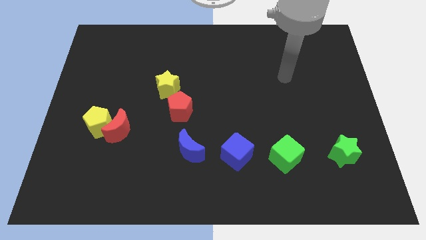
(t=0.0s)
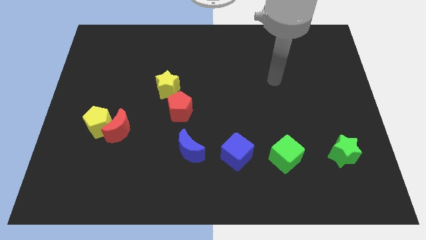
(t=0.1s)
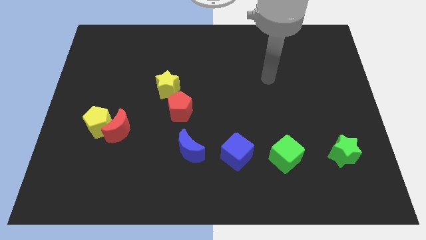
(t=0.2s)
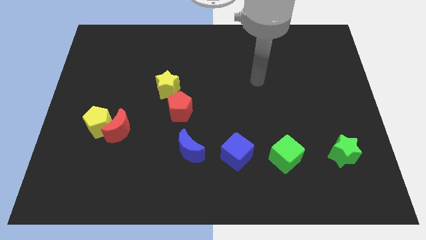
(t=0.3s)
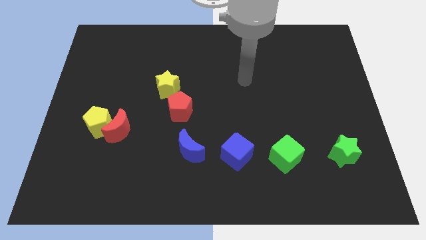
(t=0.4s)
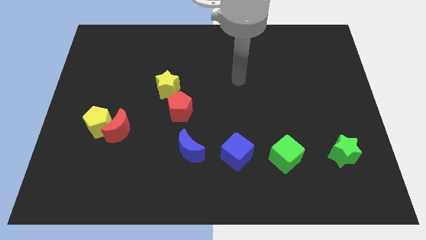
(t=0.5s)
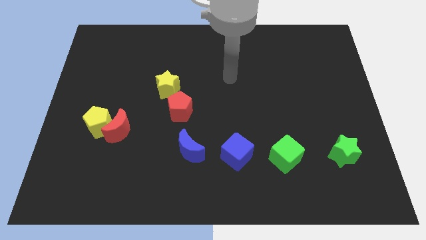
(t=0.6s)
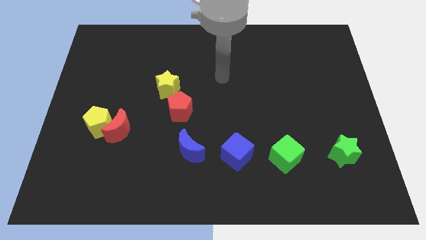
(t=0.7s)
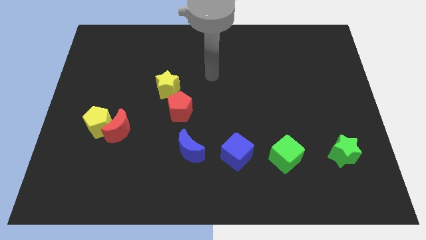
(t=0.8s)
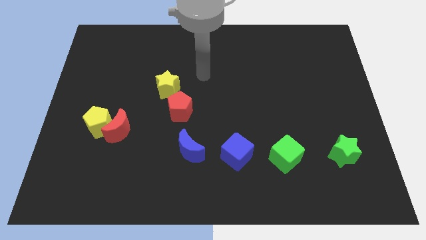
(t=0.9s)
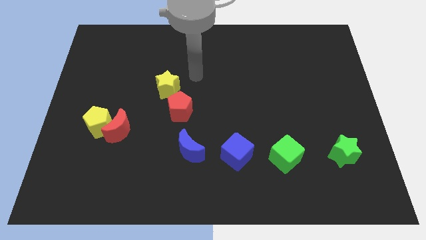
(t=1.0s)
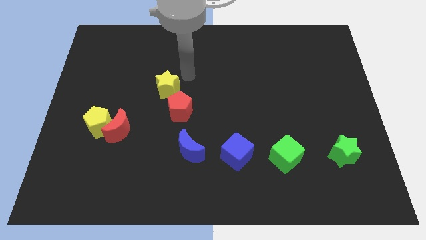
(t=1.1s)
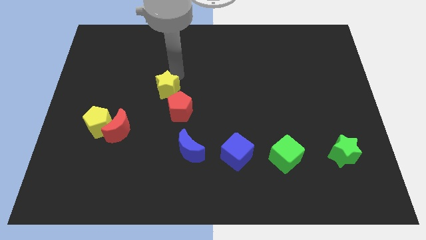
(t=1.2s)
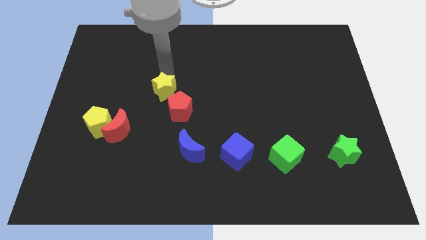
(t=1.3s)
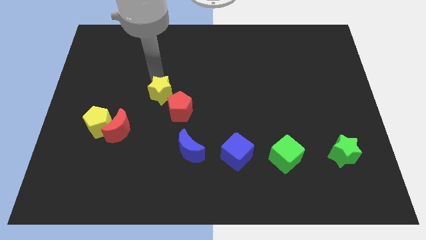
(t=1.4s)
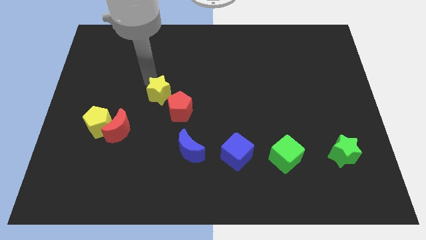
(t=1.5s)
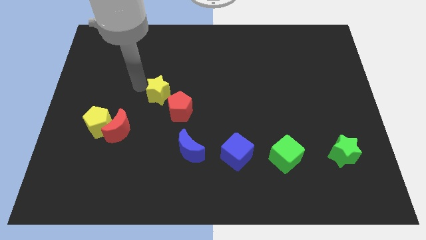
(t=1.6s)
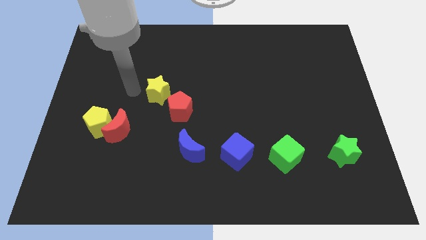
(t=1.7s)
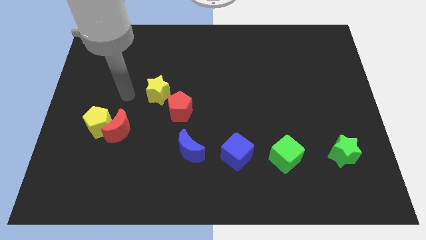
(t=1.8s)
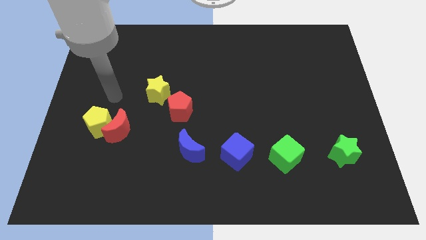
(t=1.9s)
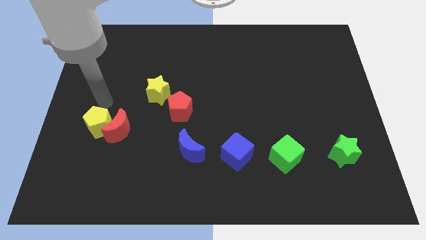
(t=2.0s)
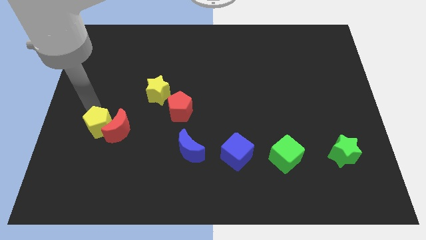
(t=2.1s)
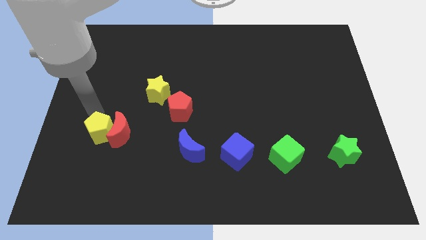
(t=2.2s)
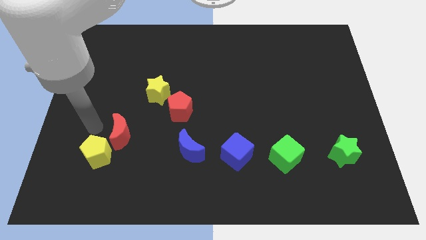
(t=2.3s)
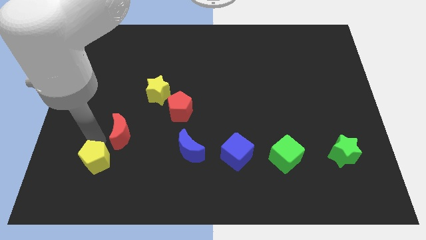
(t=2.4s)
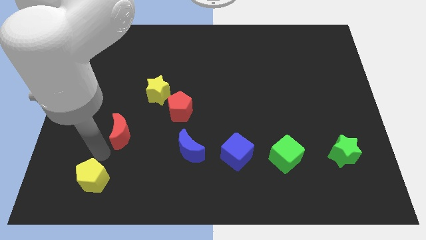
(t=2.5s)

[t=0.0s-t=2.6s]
separate the red moon from the yellow pentagon

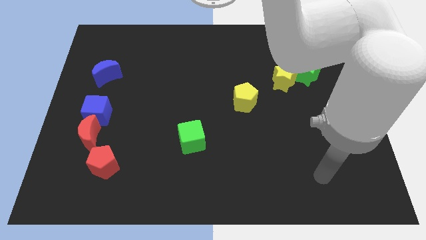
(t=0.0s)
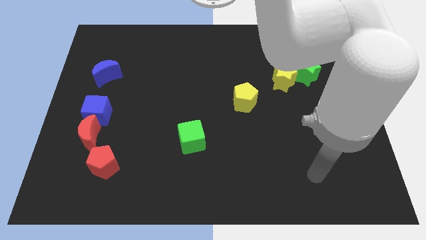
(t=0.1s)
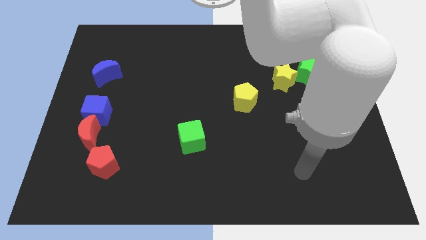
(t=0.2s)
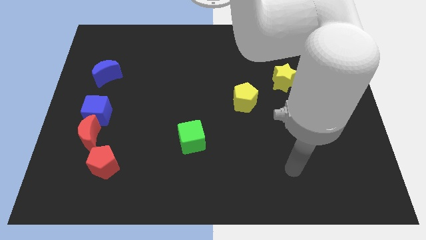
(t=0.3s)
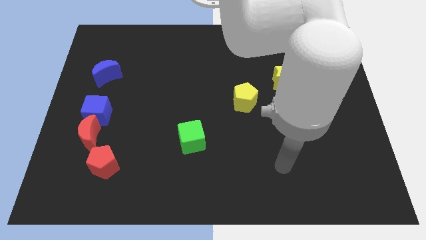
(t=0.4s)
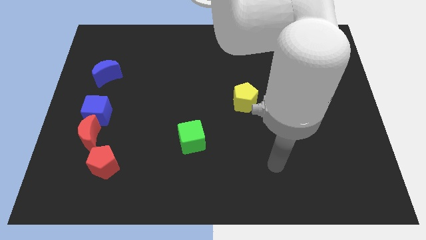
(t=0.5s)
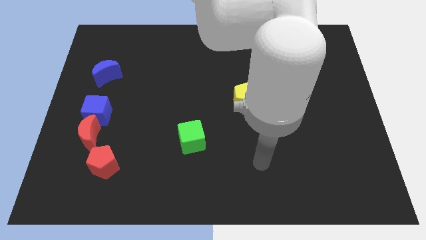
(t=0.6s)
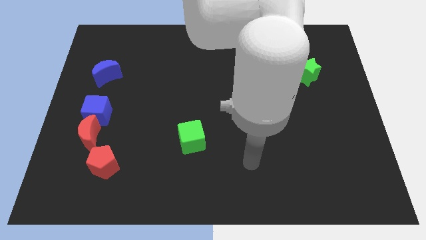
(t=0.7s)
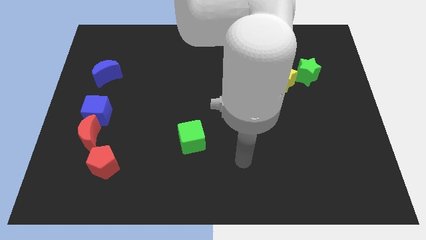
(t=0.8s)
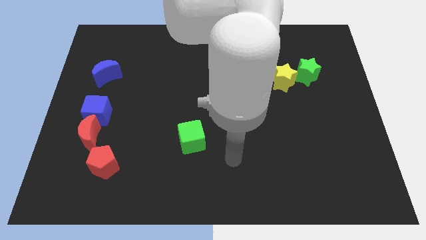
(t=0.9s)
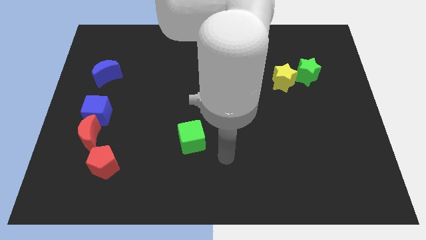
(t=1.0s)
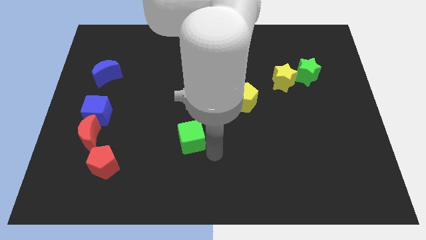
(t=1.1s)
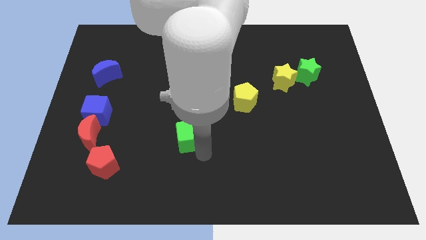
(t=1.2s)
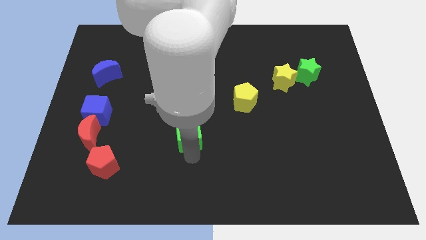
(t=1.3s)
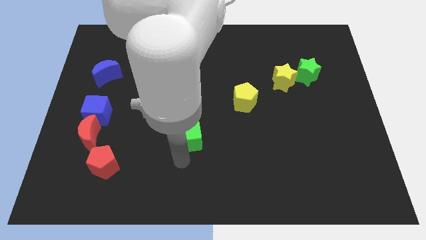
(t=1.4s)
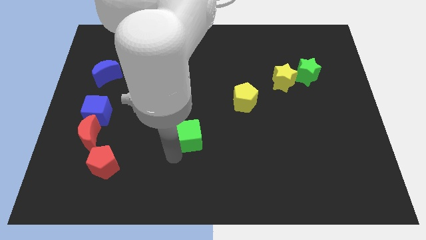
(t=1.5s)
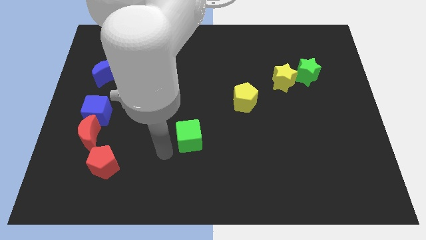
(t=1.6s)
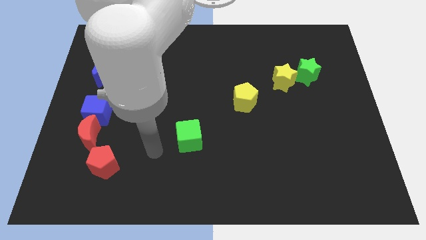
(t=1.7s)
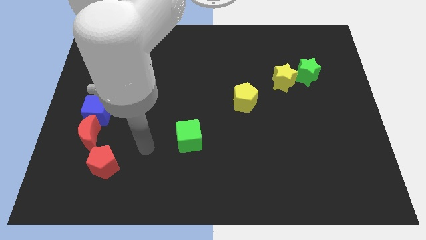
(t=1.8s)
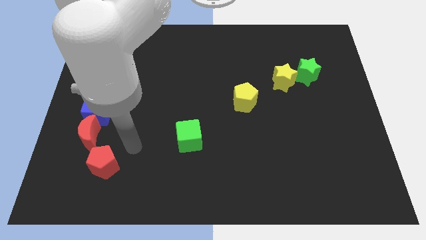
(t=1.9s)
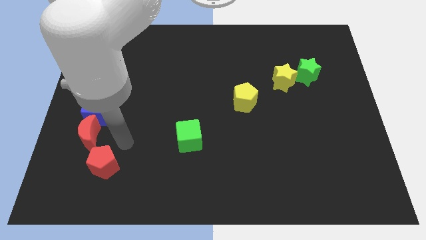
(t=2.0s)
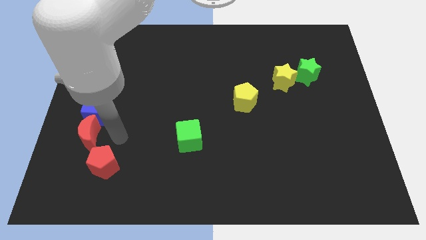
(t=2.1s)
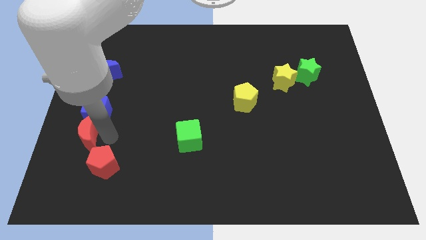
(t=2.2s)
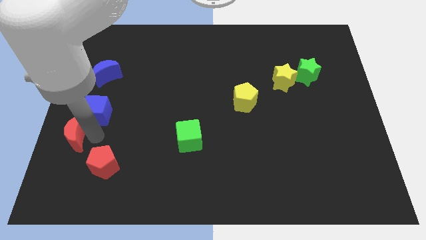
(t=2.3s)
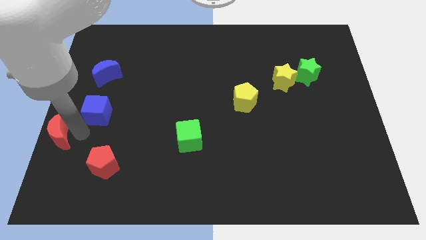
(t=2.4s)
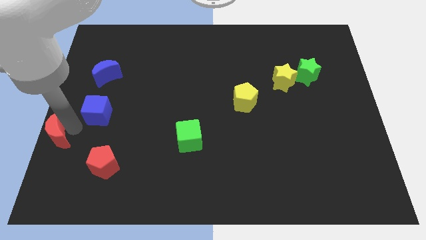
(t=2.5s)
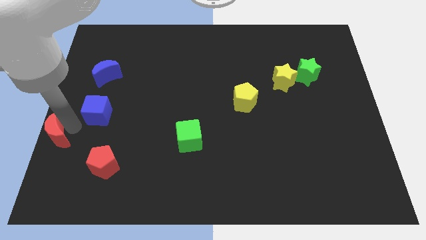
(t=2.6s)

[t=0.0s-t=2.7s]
move the blue cube away from the red moon

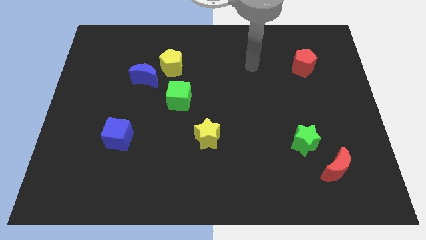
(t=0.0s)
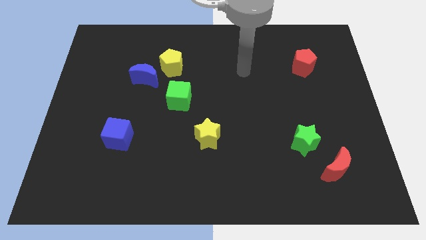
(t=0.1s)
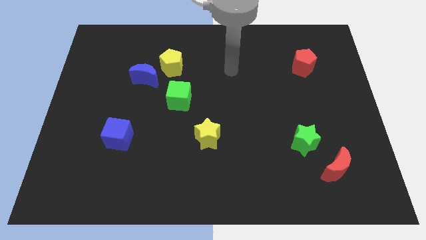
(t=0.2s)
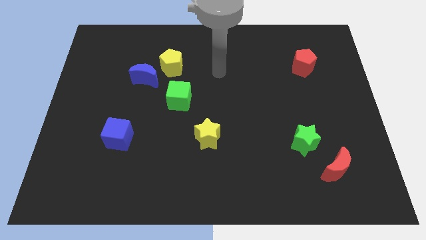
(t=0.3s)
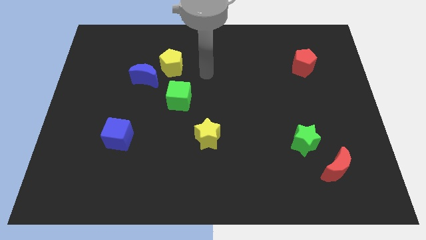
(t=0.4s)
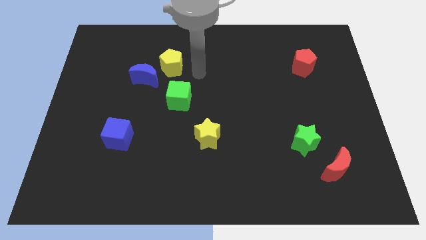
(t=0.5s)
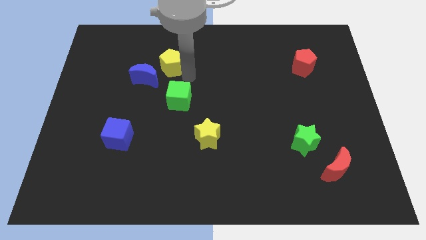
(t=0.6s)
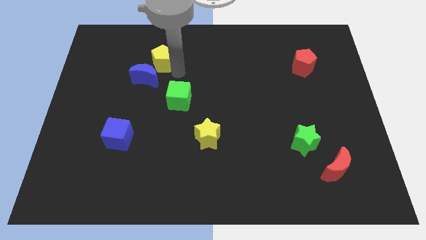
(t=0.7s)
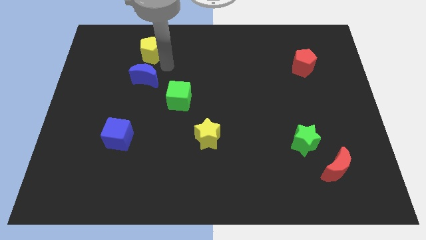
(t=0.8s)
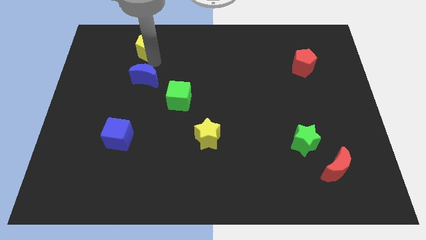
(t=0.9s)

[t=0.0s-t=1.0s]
pull the blue moon apart from the yellow pentagon

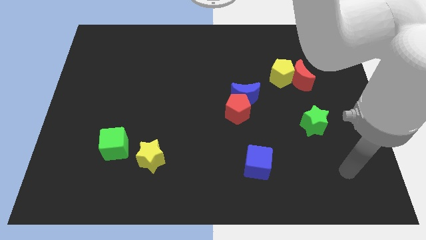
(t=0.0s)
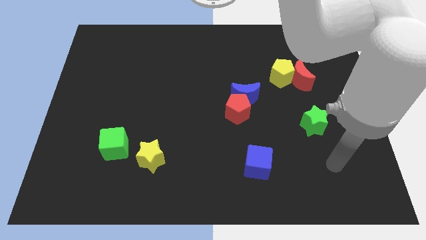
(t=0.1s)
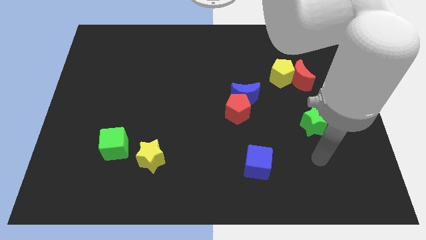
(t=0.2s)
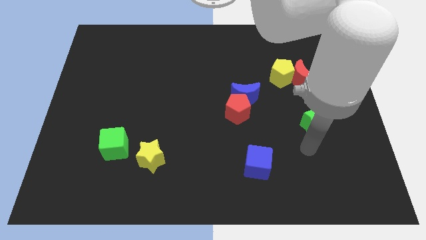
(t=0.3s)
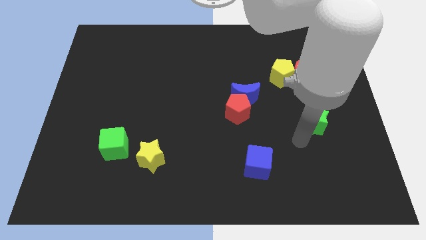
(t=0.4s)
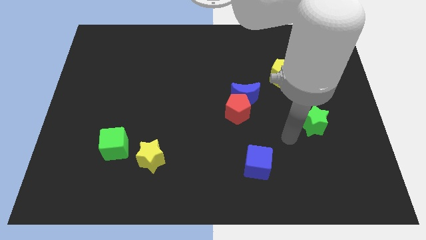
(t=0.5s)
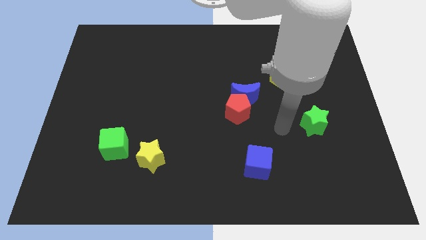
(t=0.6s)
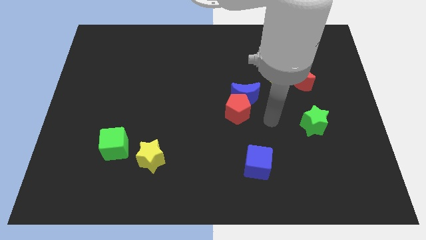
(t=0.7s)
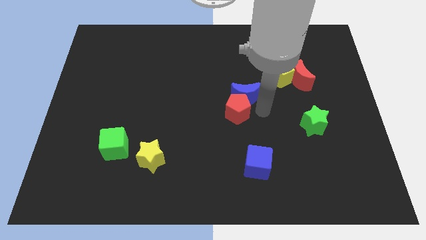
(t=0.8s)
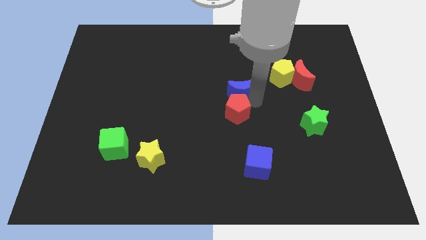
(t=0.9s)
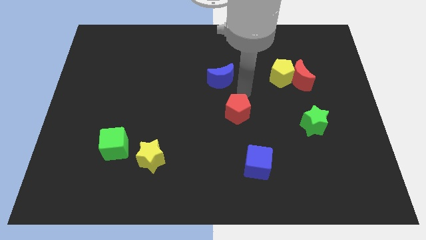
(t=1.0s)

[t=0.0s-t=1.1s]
separate the red pentagon from the blue moon

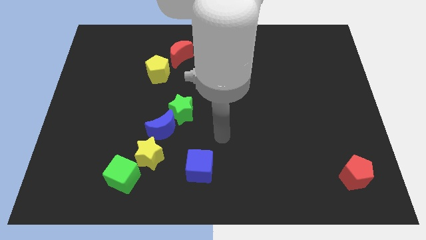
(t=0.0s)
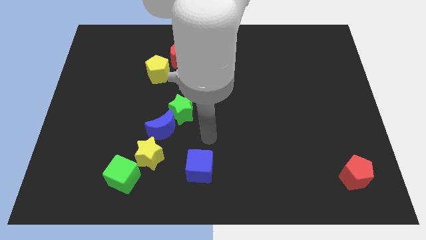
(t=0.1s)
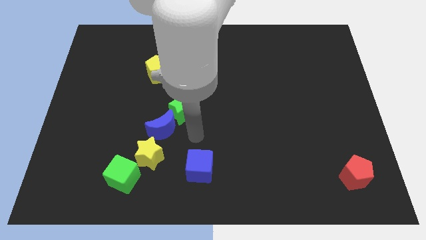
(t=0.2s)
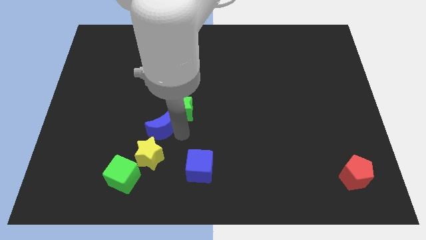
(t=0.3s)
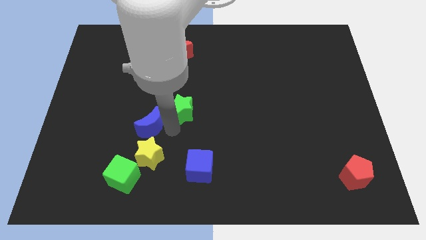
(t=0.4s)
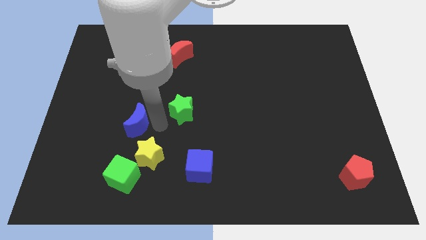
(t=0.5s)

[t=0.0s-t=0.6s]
separate the green star from the blue moon

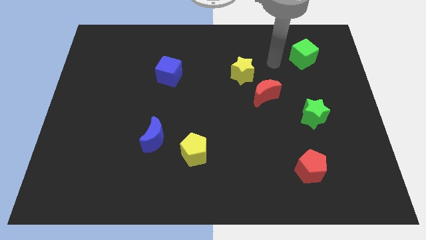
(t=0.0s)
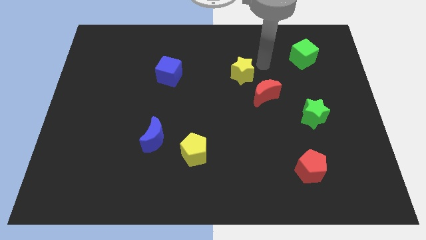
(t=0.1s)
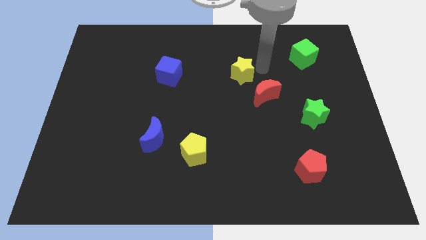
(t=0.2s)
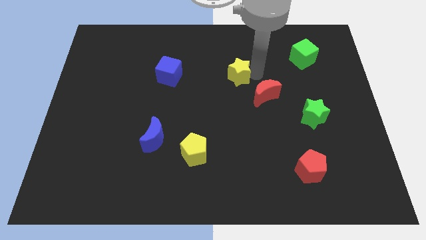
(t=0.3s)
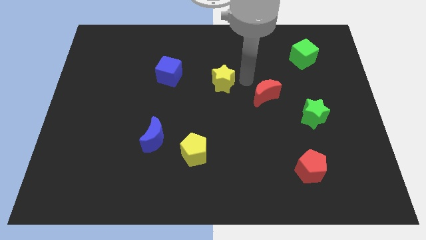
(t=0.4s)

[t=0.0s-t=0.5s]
pull the red moon apart from the yellow star

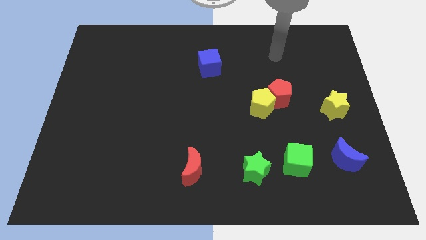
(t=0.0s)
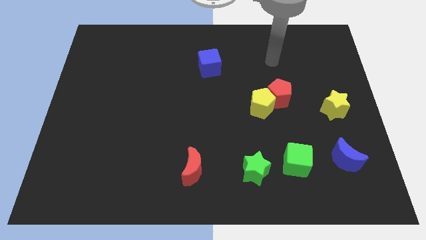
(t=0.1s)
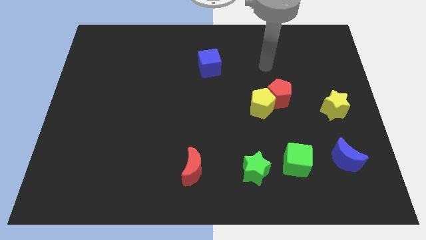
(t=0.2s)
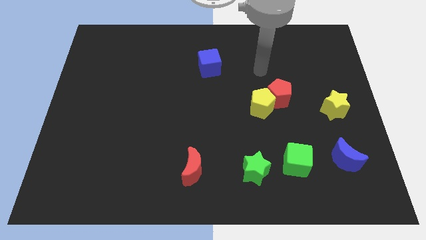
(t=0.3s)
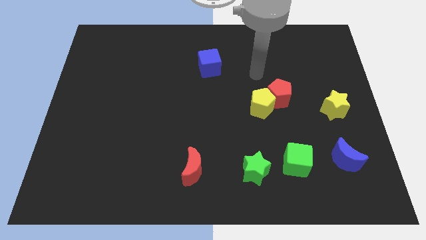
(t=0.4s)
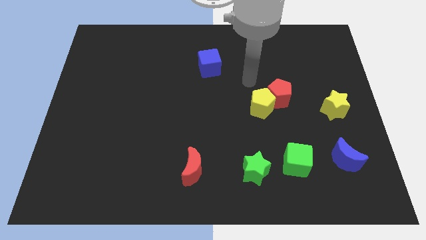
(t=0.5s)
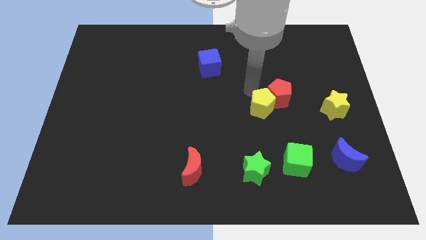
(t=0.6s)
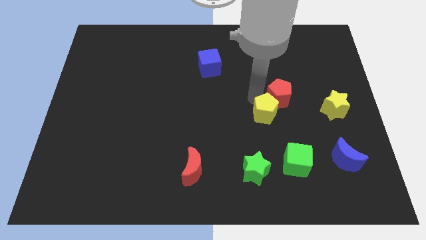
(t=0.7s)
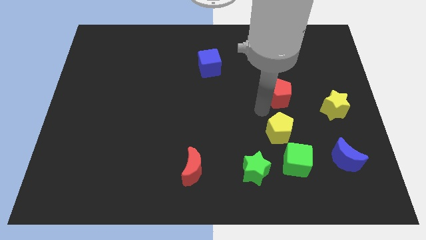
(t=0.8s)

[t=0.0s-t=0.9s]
separate the red pentagon from the yellow pentagon
